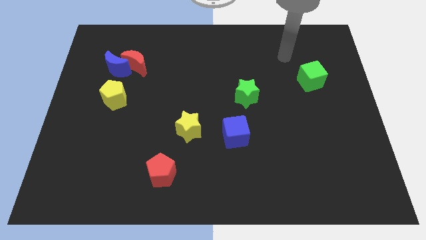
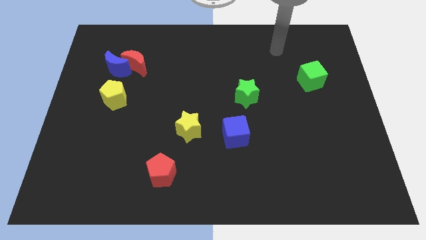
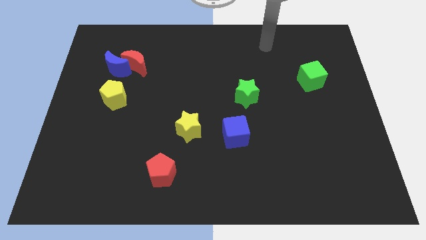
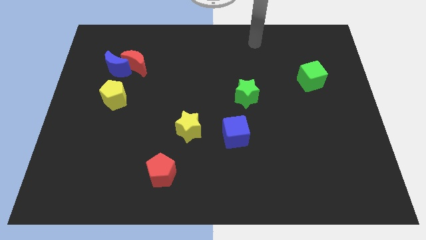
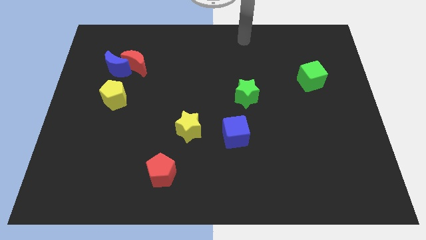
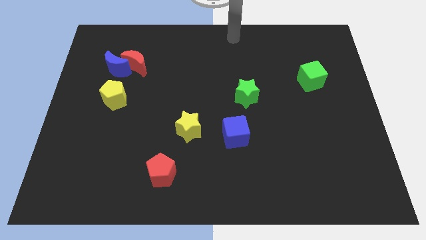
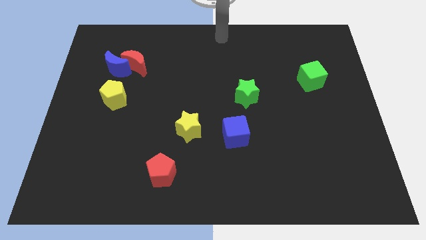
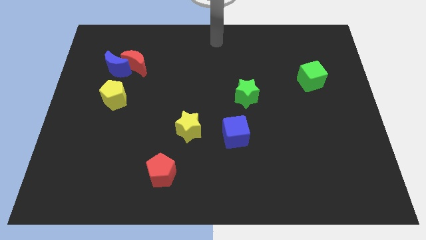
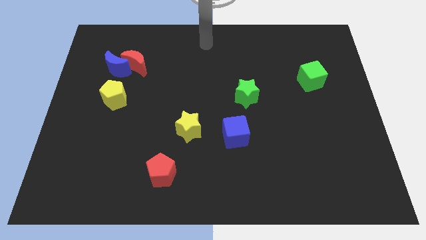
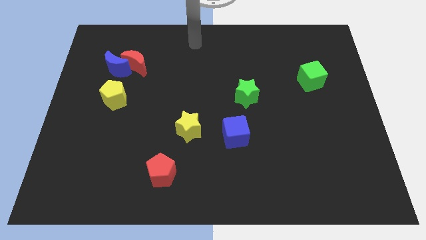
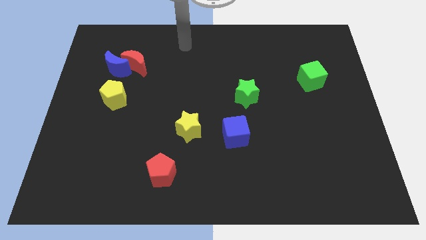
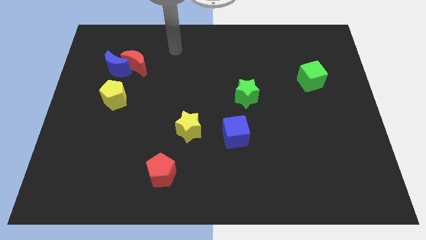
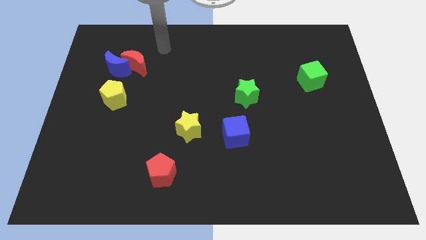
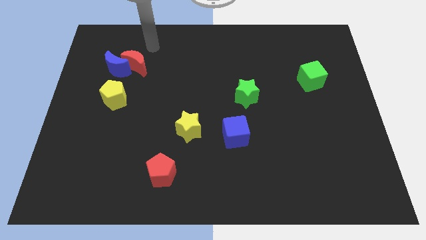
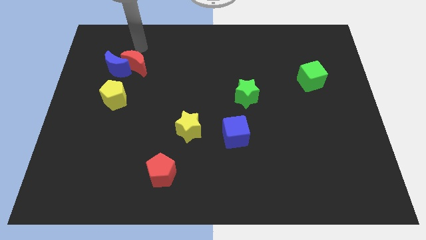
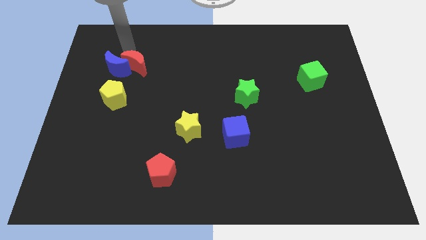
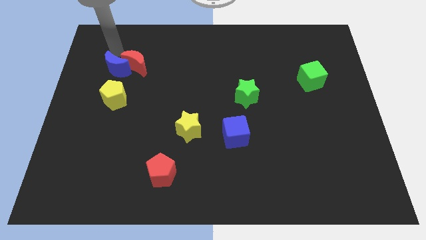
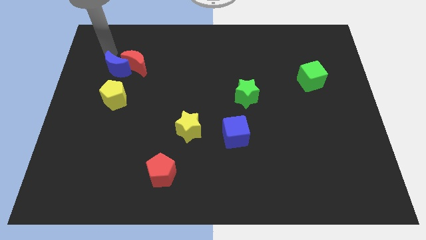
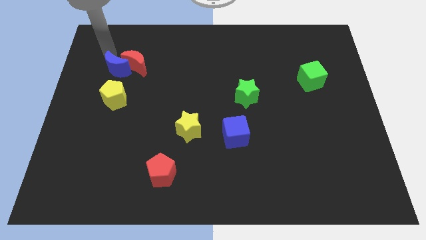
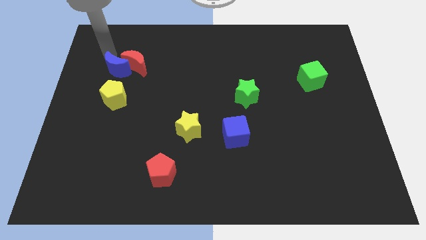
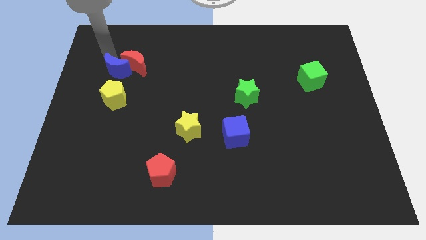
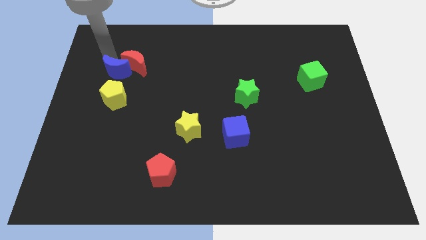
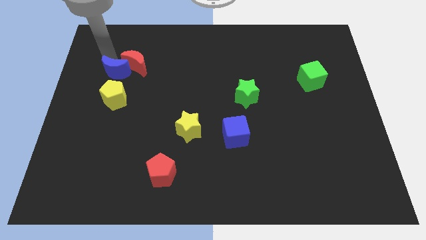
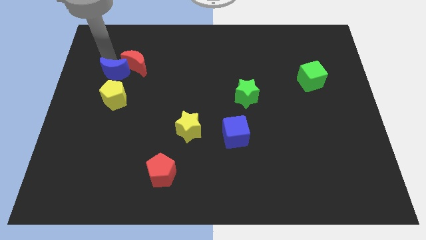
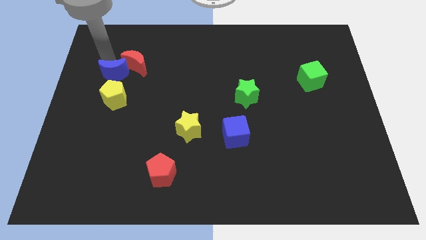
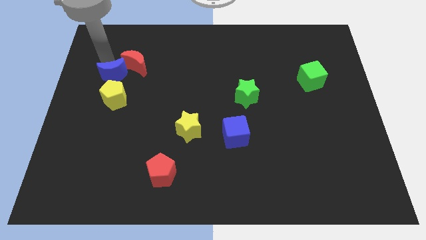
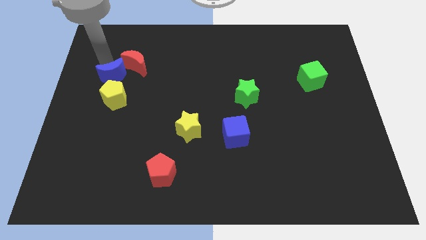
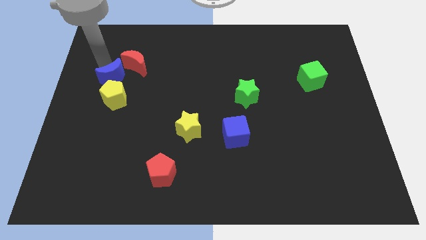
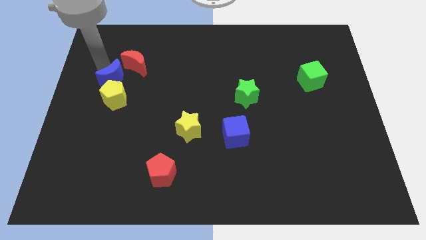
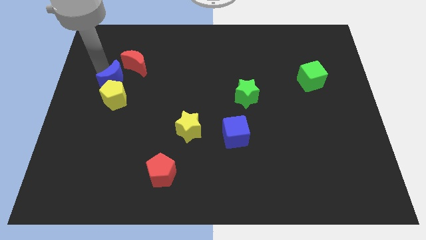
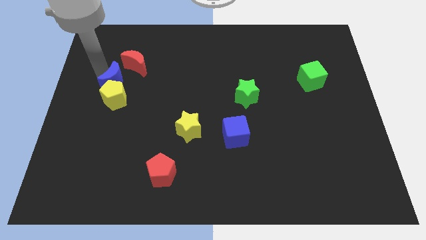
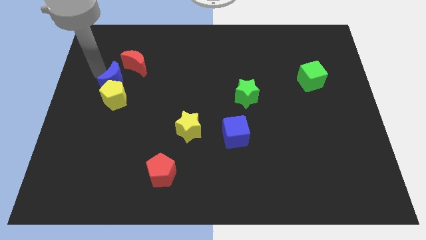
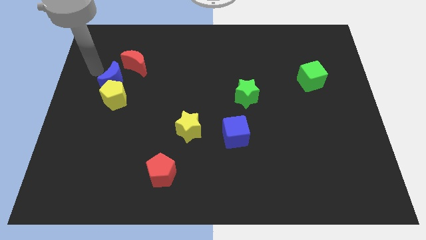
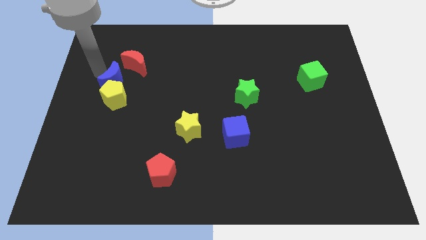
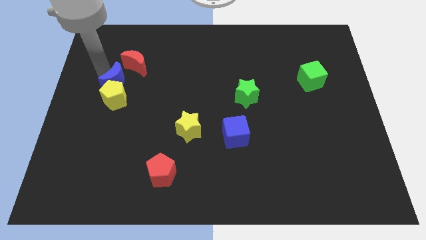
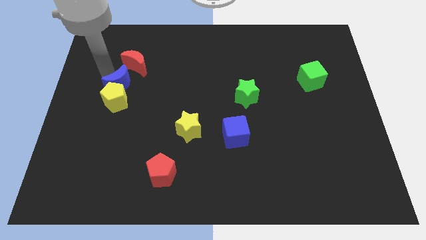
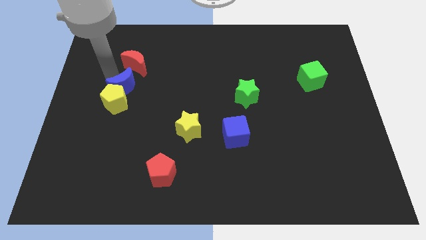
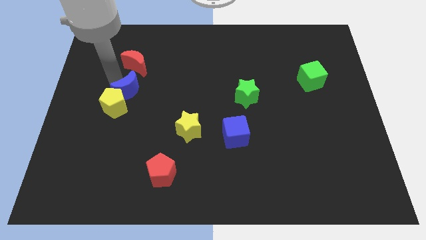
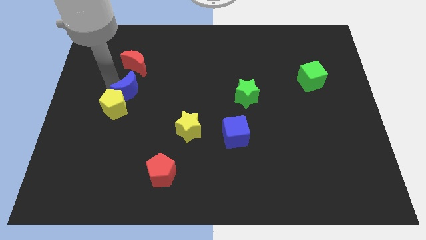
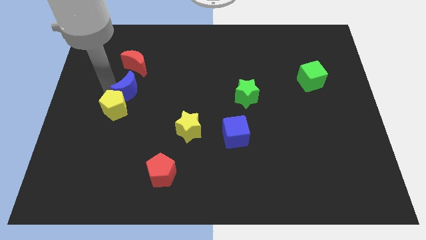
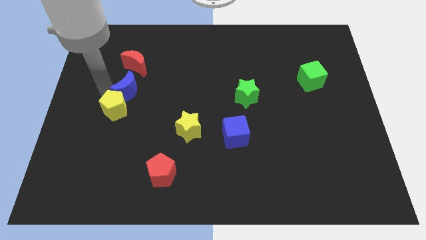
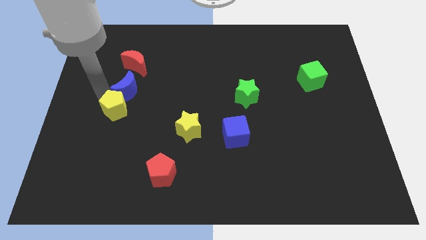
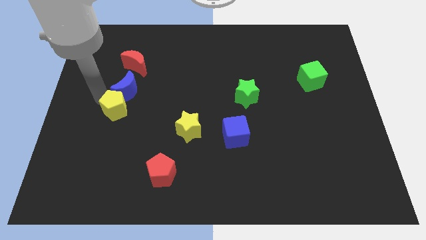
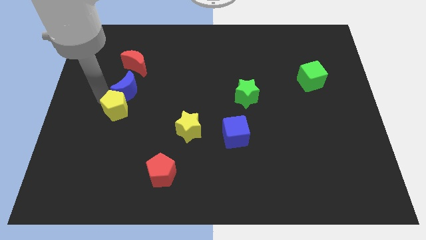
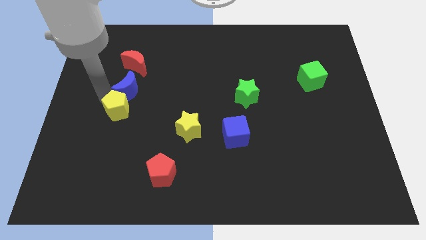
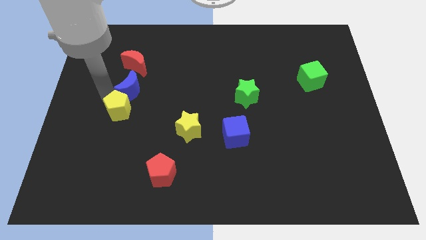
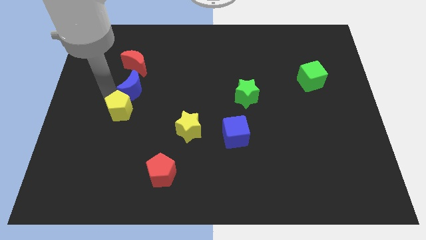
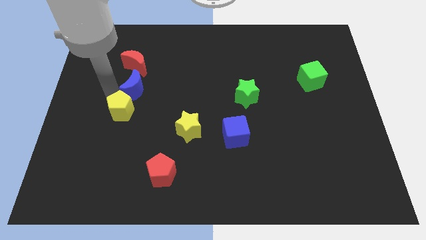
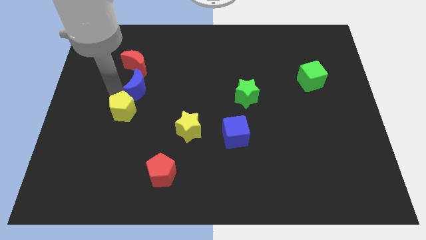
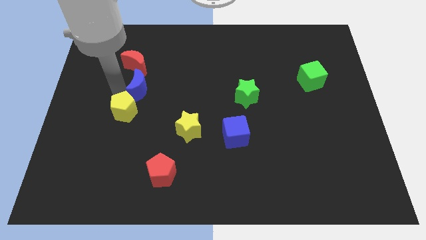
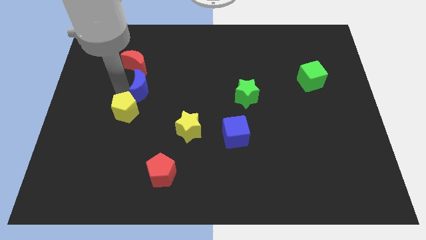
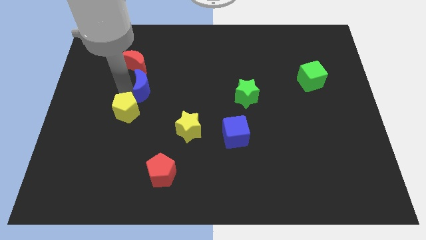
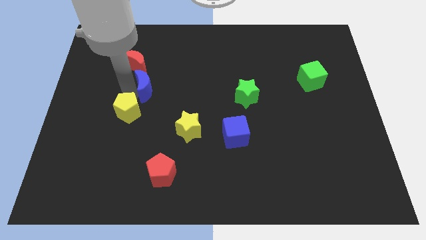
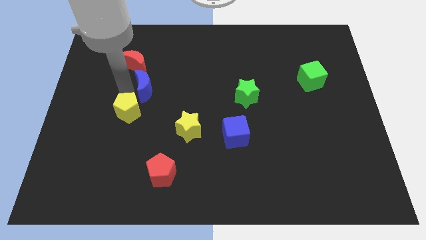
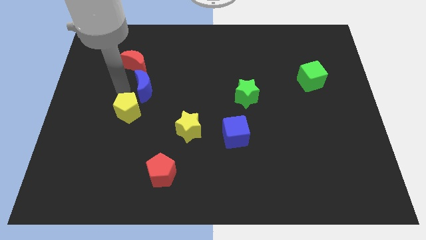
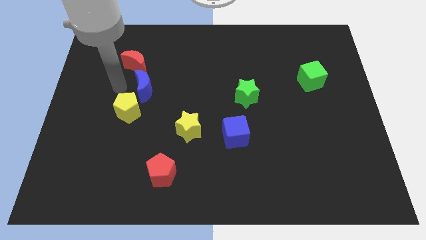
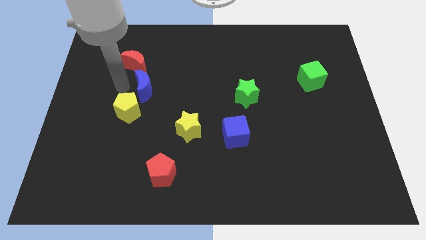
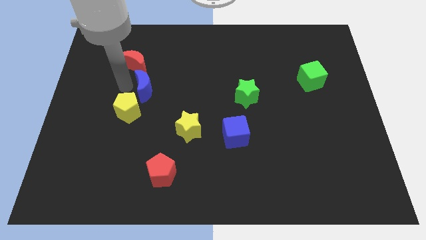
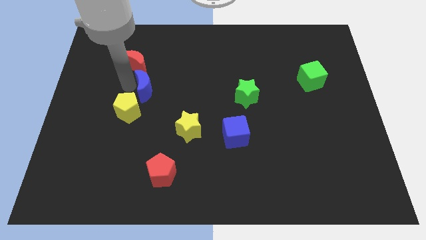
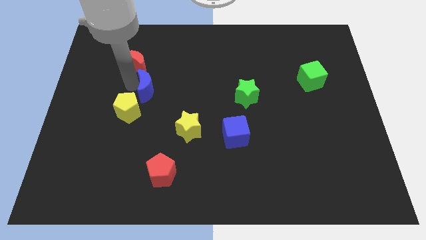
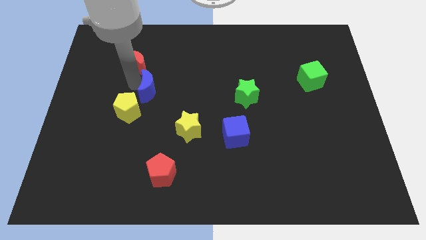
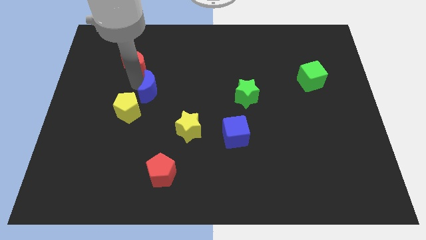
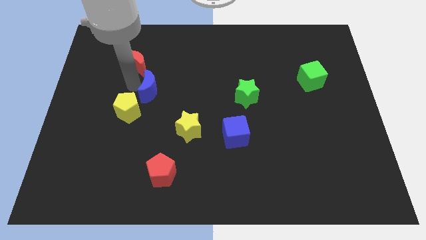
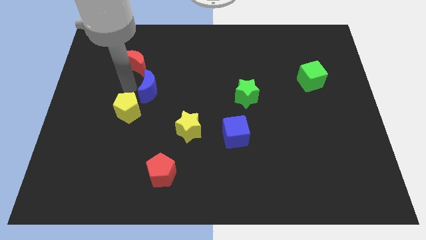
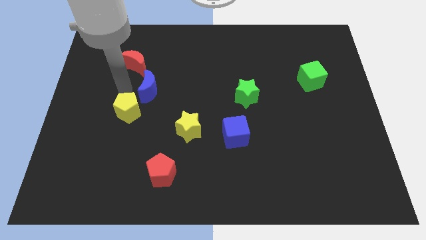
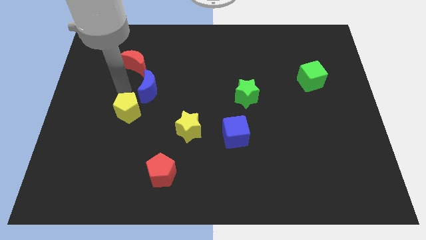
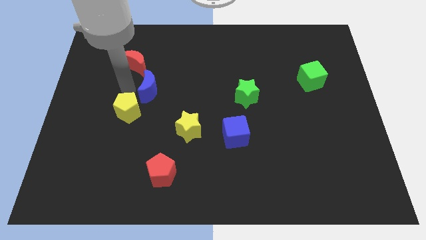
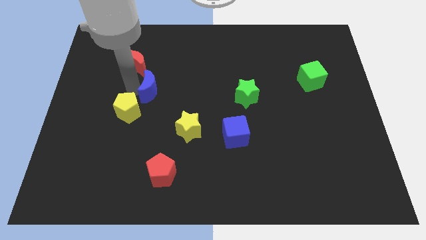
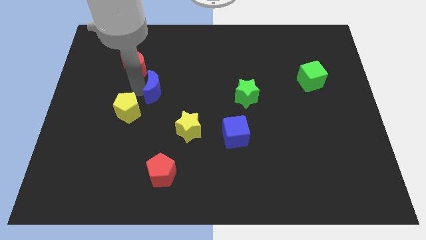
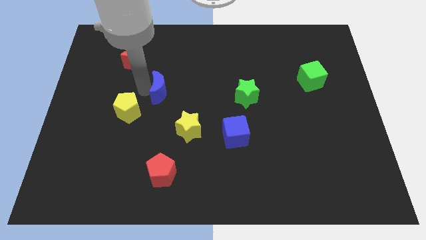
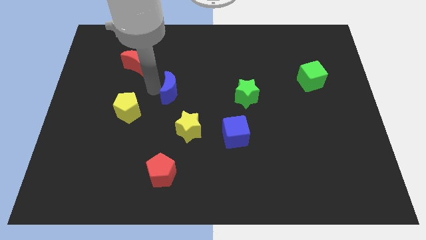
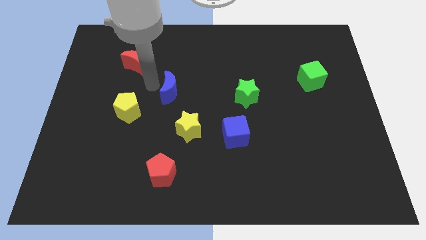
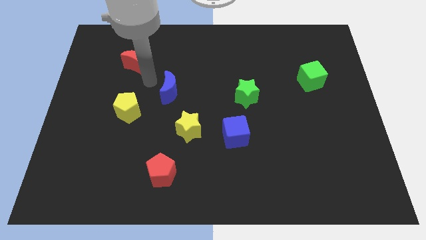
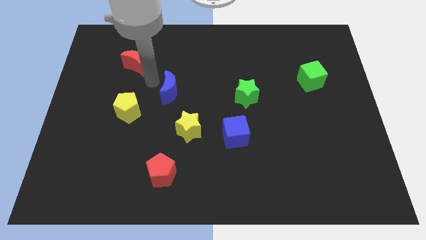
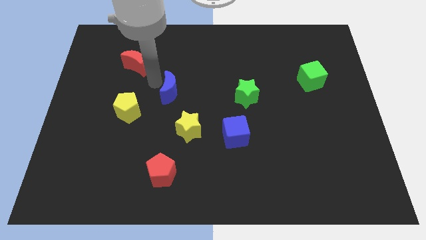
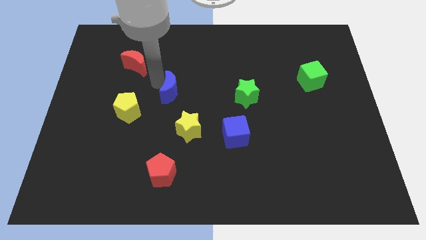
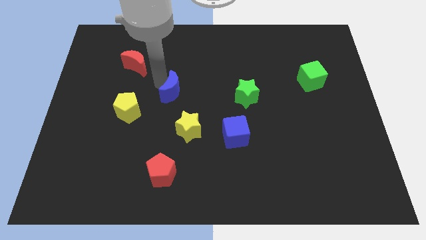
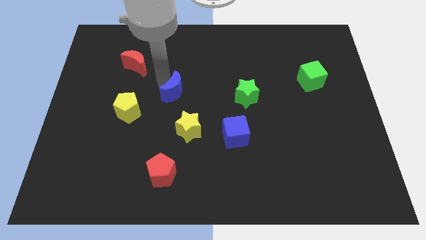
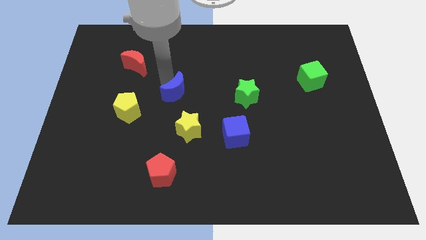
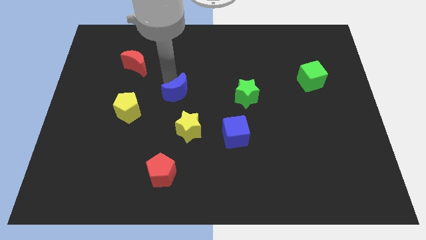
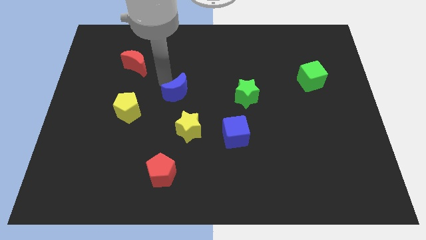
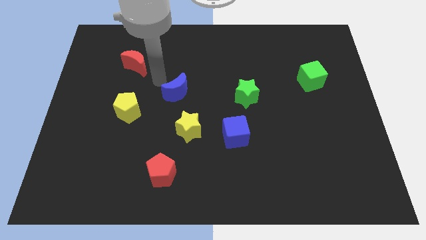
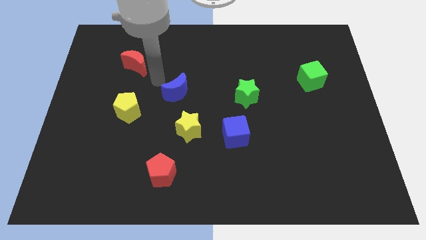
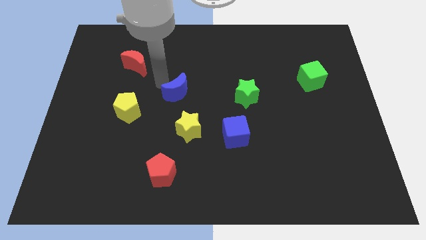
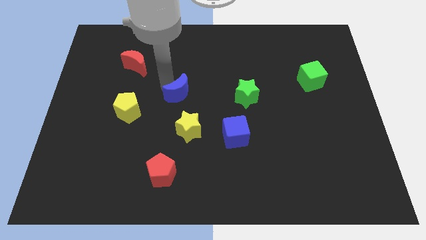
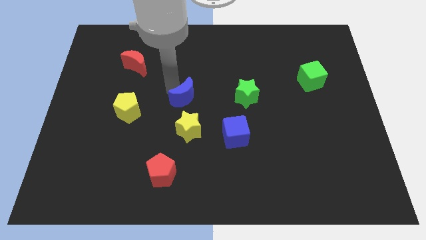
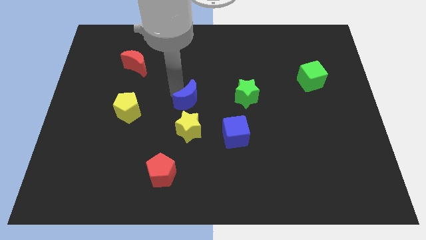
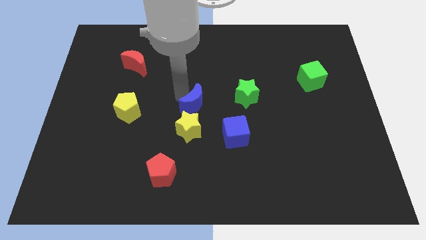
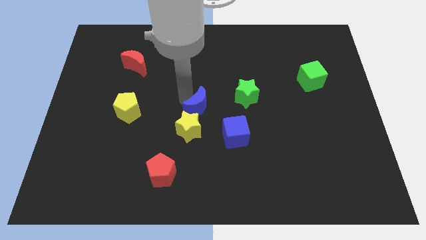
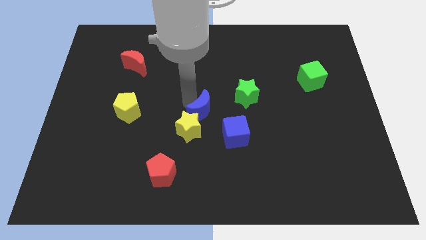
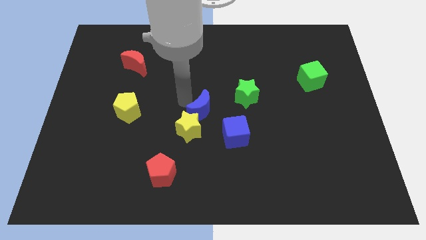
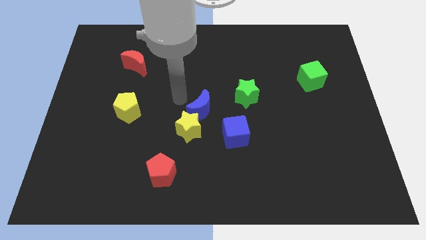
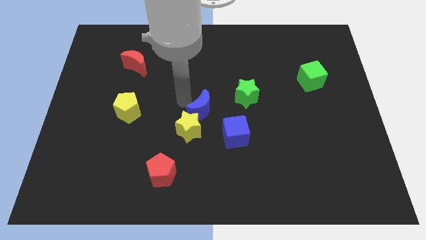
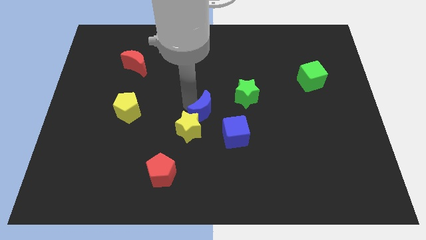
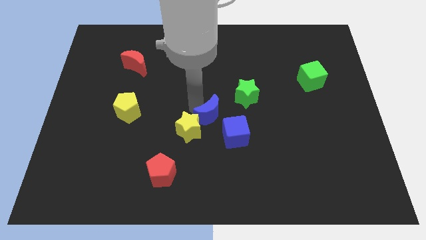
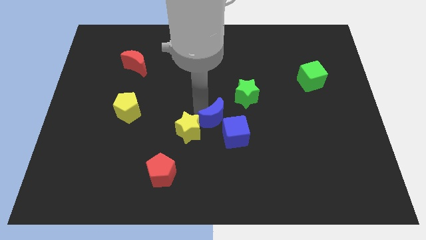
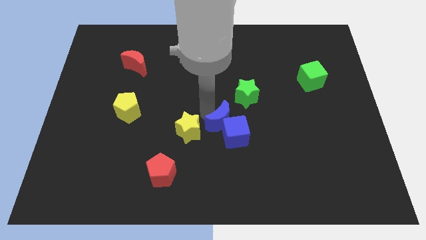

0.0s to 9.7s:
slide the blue moon to the blue cube
